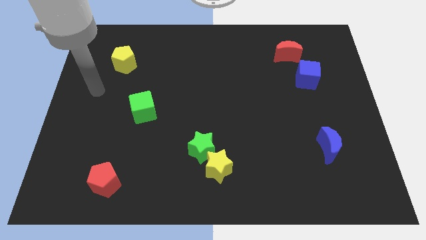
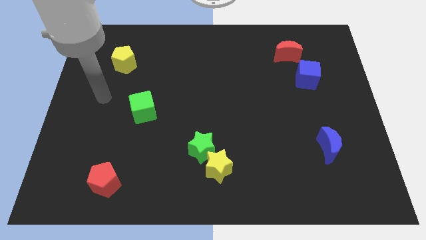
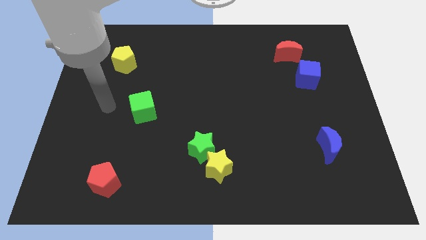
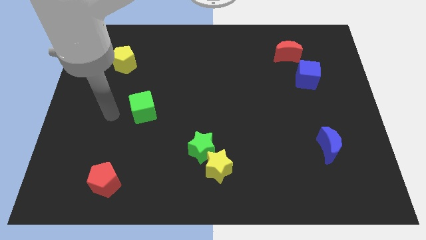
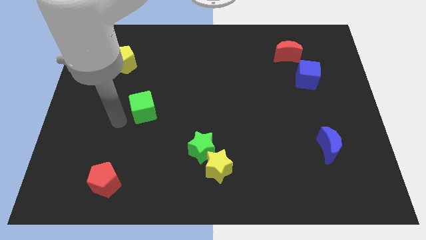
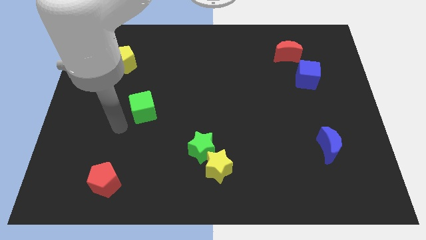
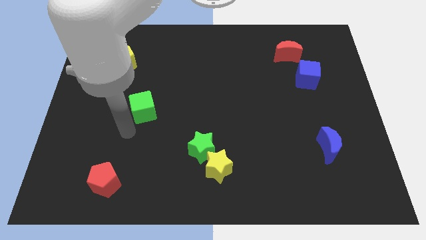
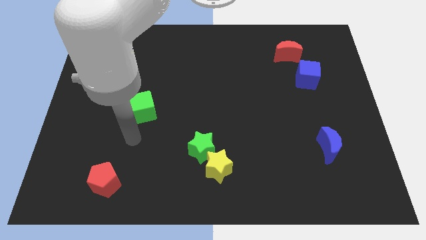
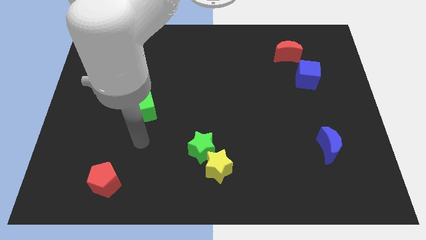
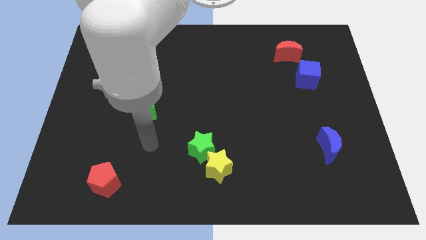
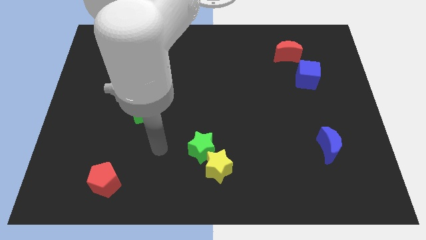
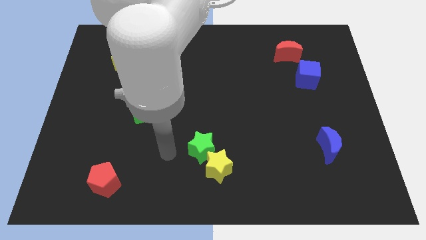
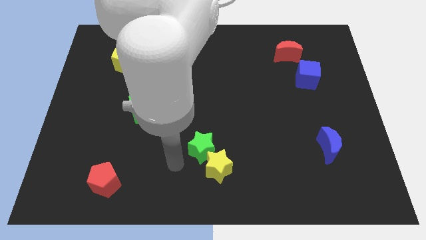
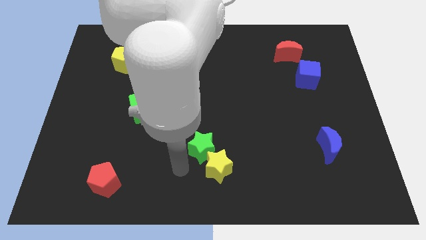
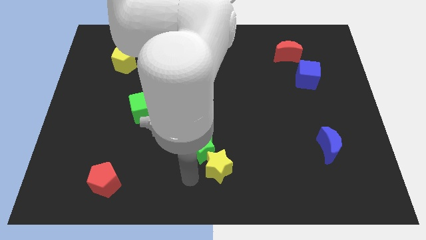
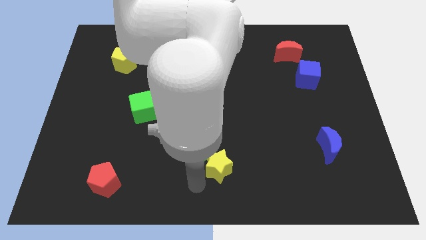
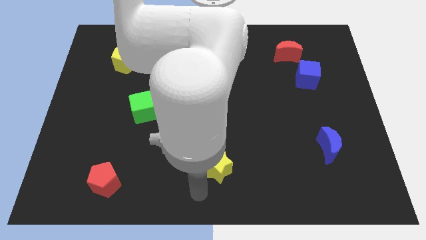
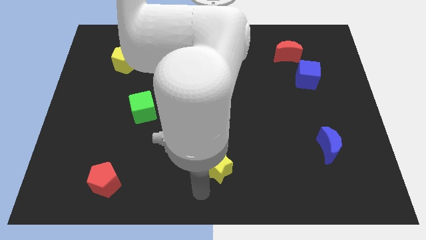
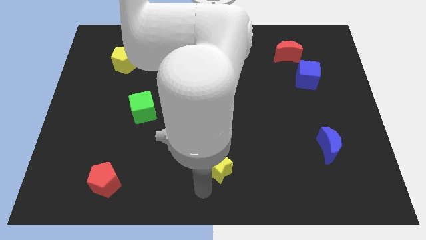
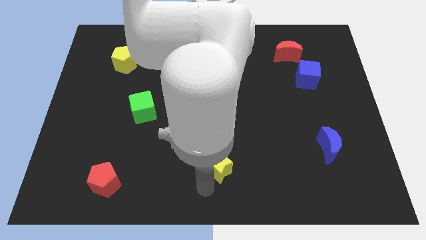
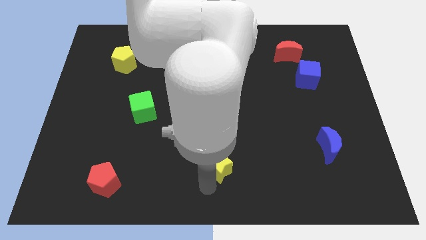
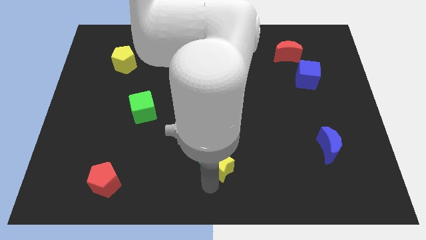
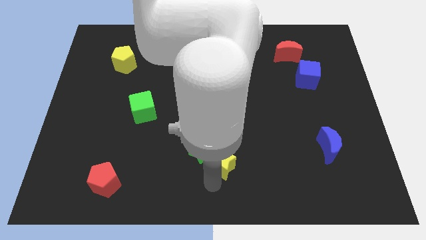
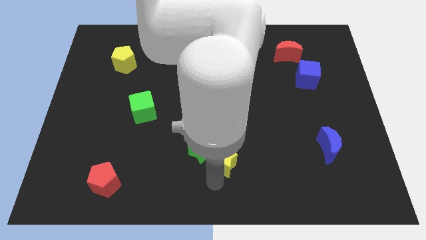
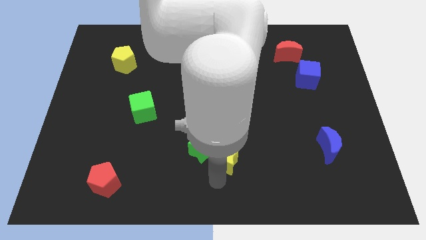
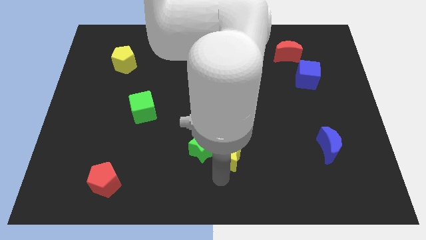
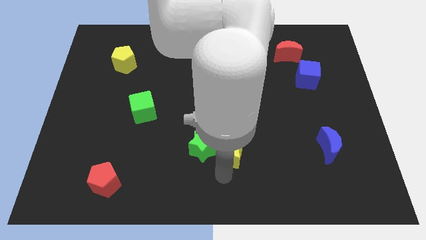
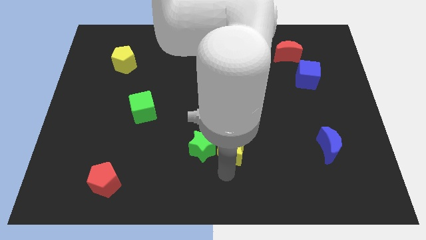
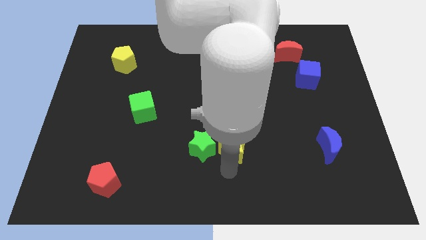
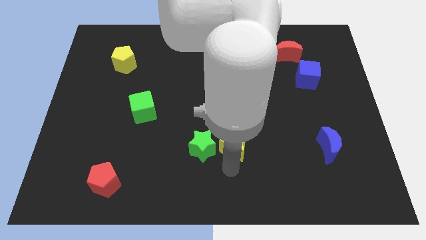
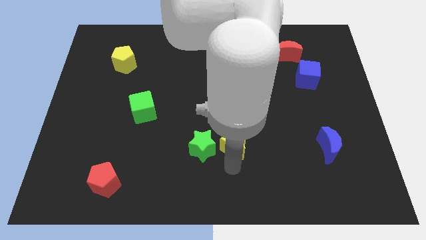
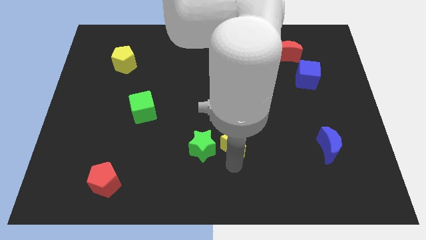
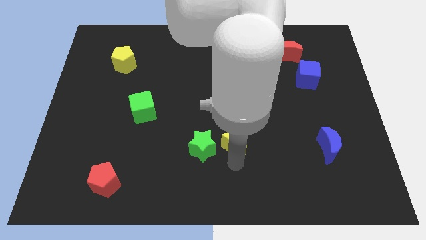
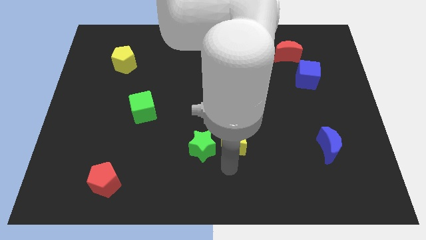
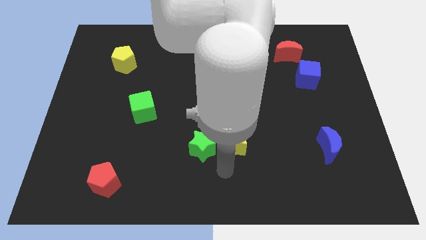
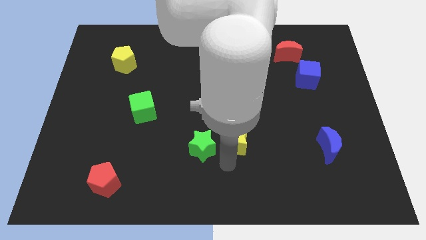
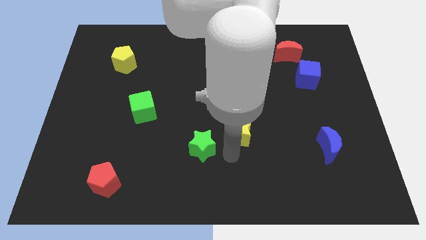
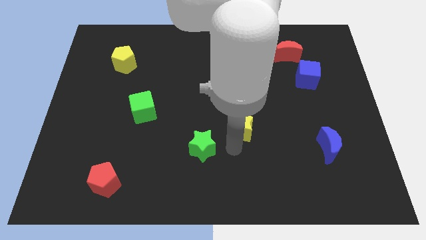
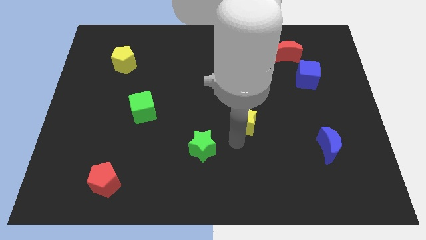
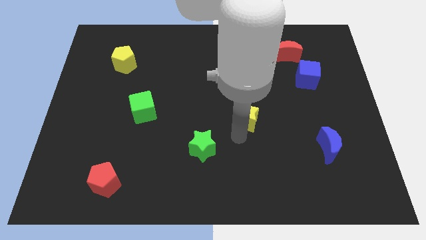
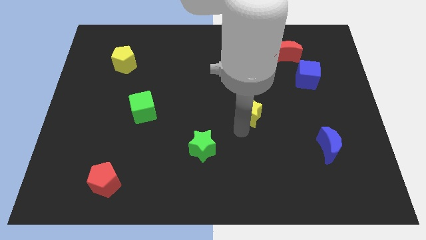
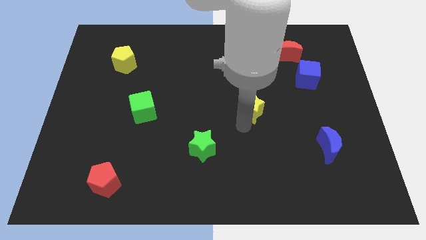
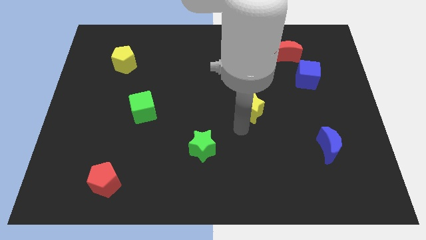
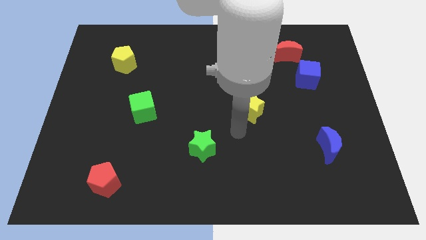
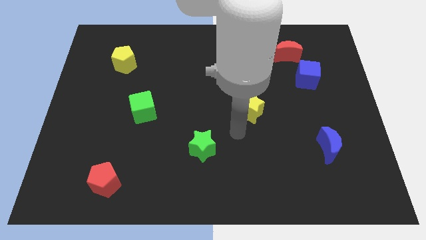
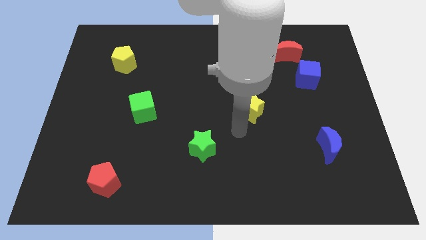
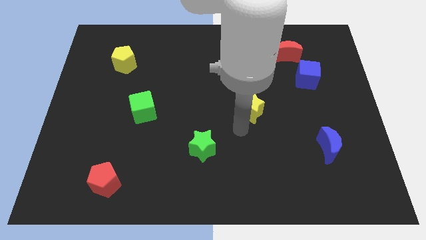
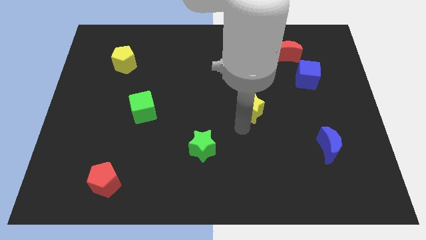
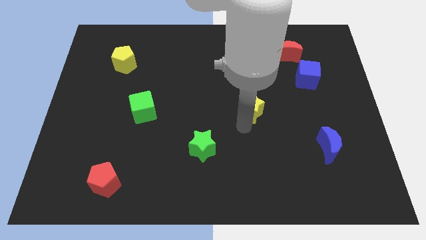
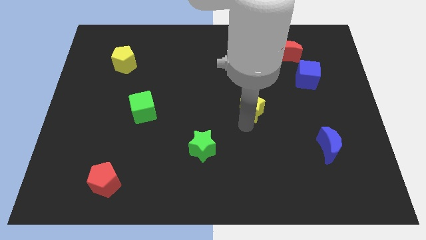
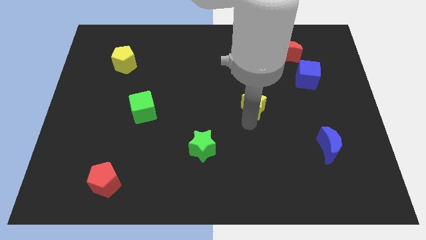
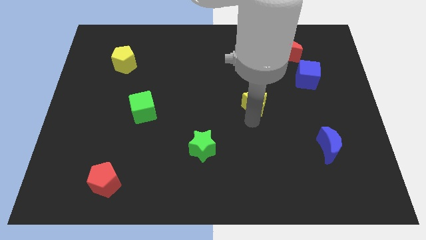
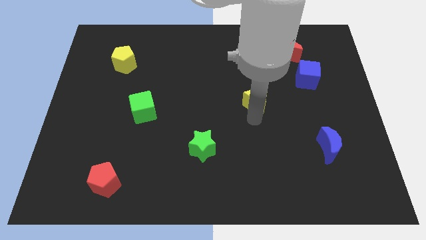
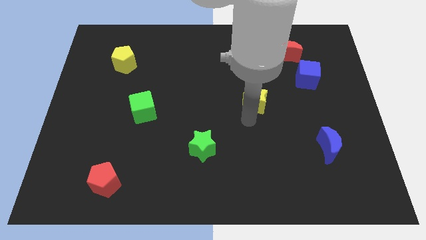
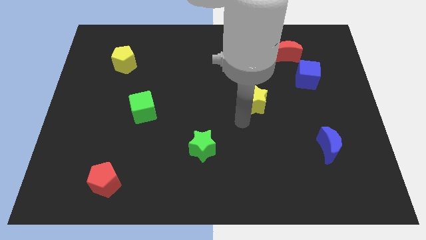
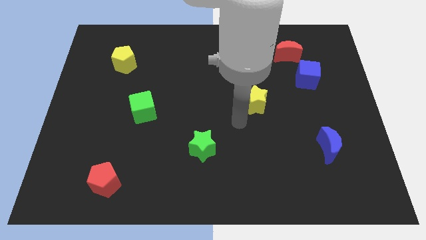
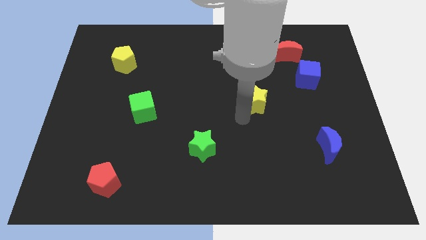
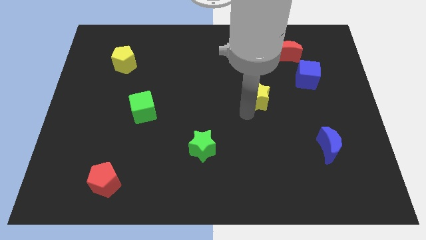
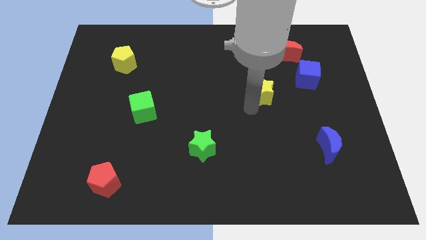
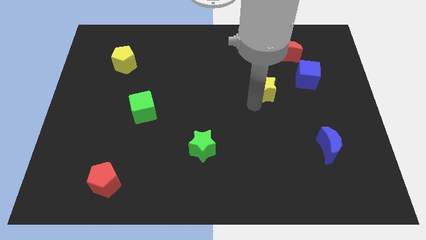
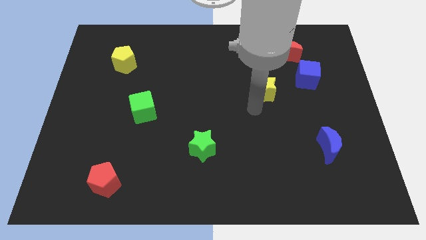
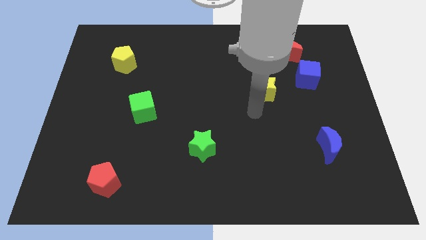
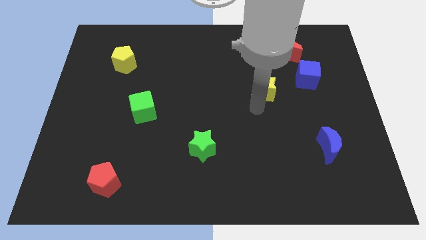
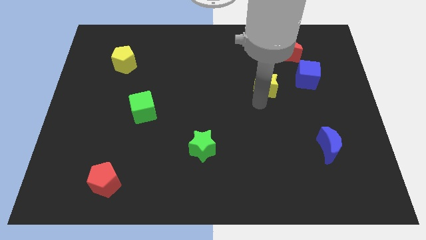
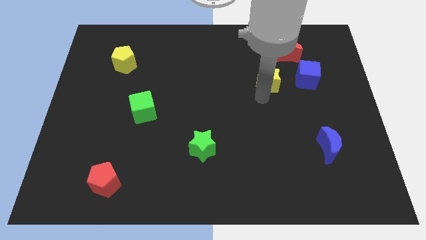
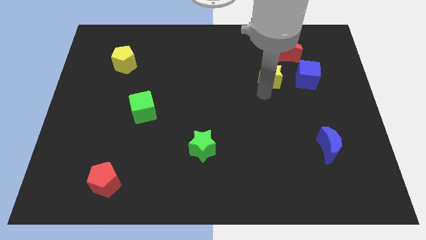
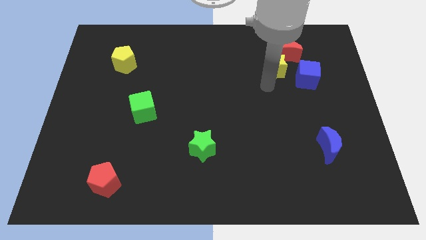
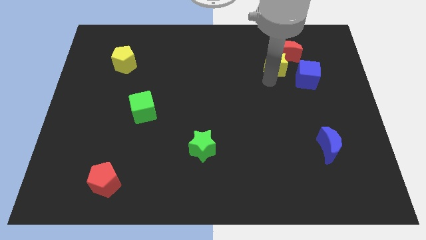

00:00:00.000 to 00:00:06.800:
put the yellow star towards the red moon

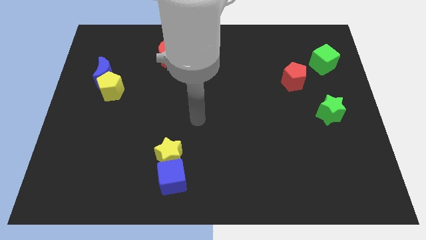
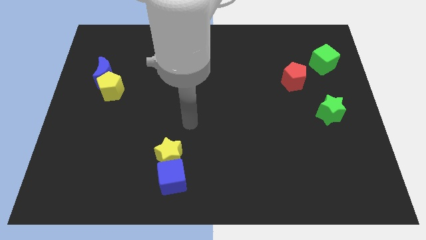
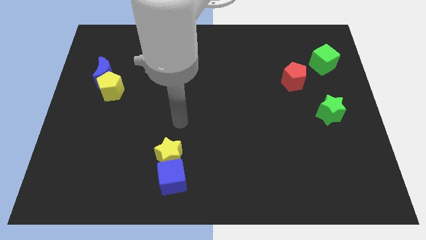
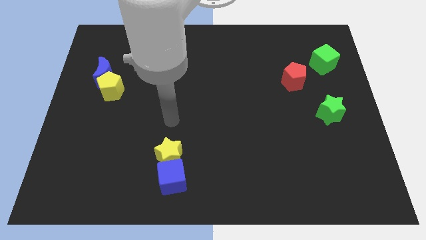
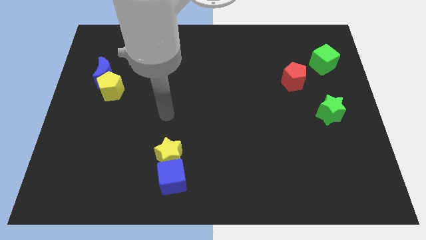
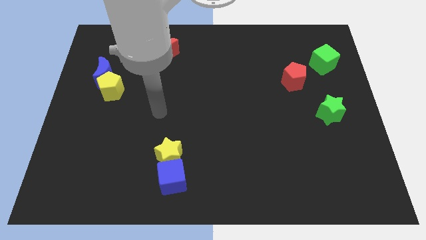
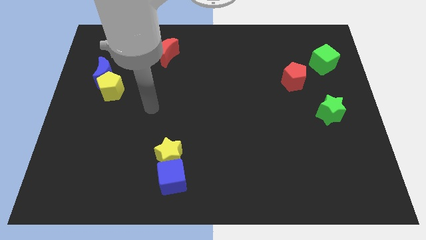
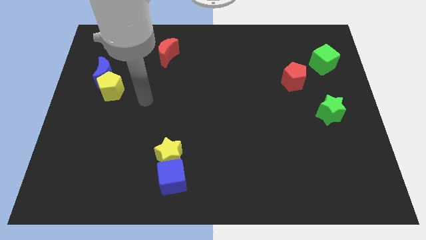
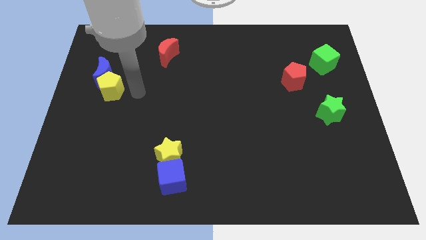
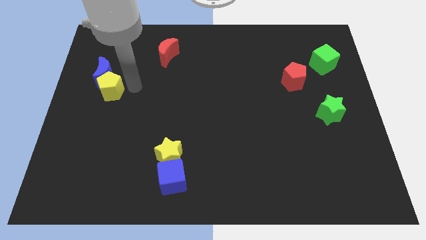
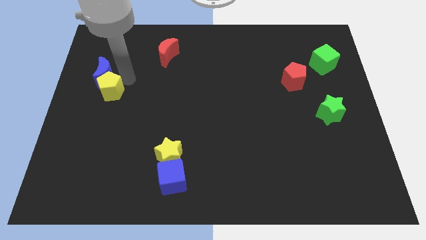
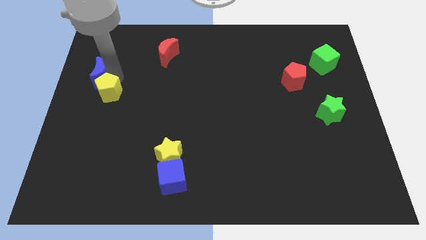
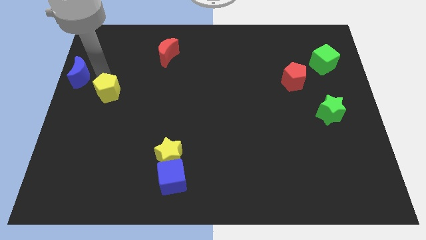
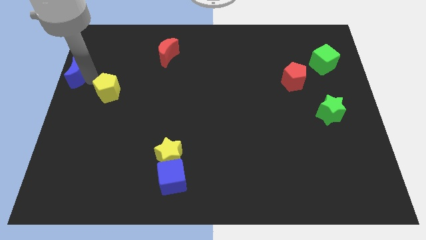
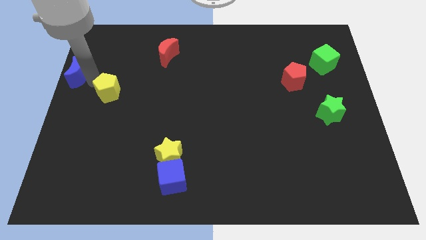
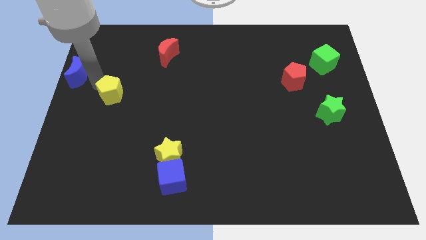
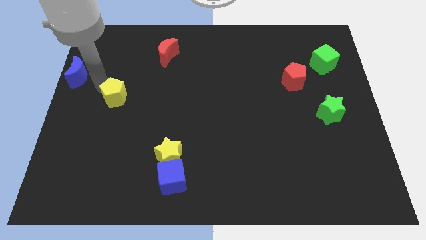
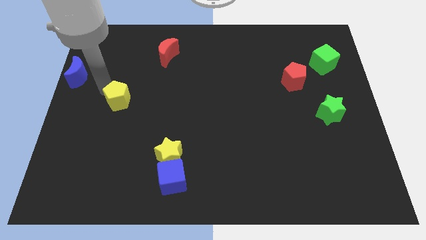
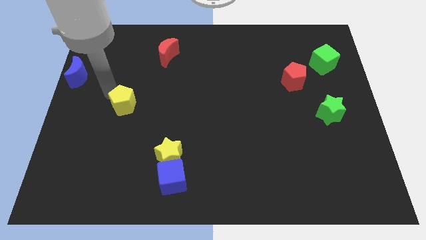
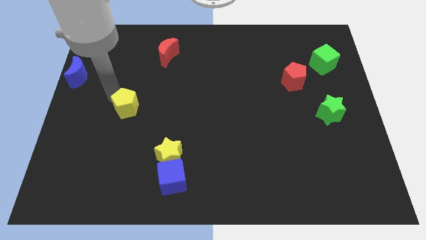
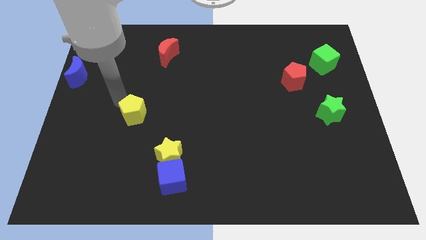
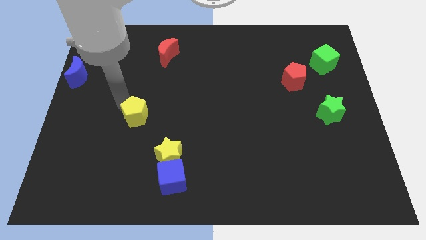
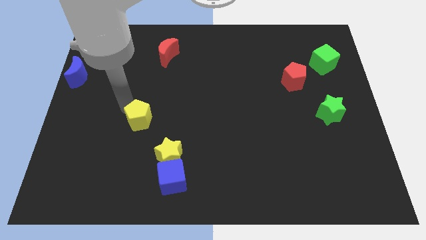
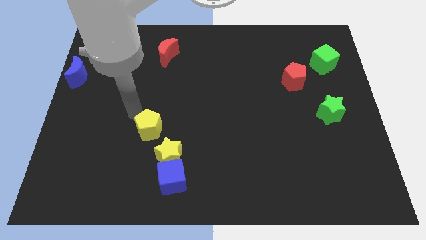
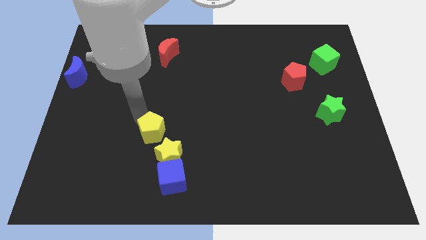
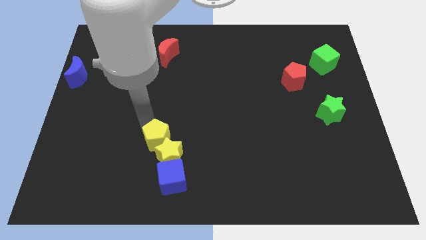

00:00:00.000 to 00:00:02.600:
slide the yellow pentagon close to the yellow star
